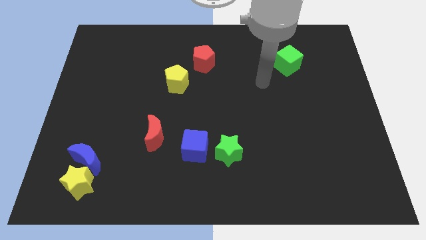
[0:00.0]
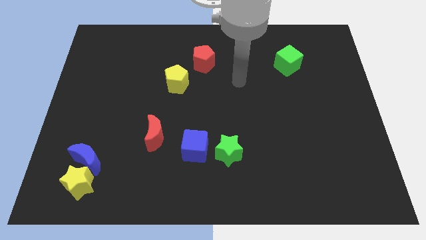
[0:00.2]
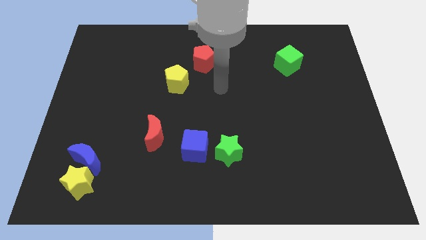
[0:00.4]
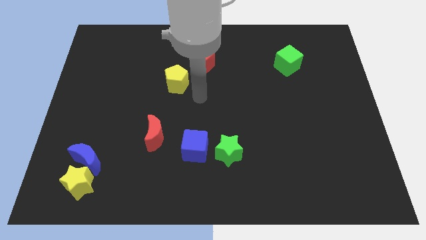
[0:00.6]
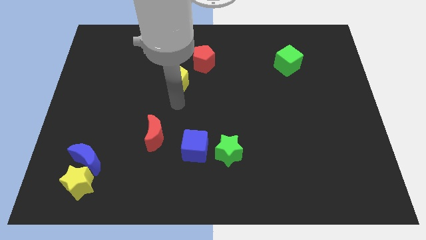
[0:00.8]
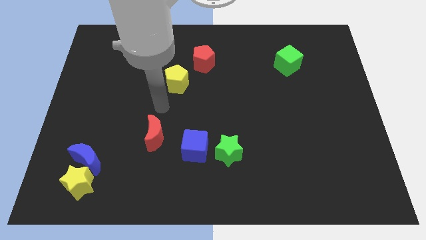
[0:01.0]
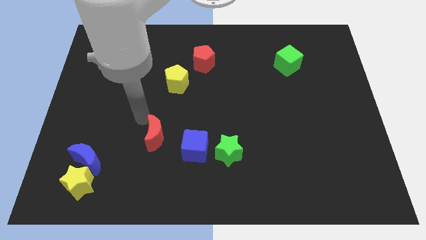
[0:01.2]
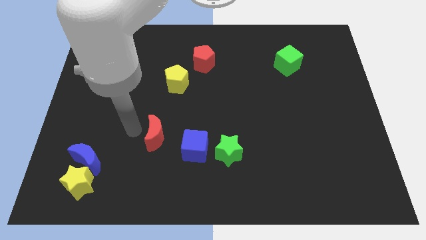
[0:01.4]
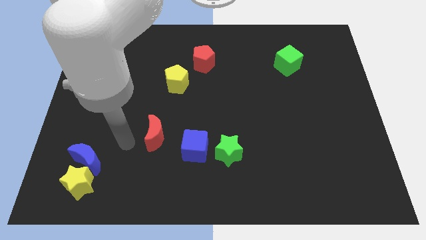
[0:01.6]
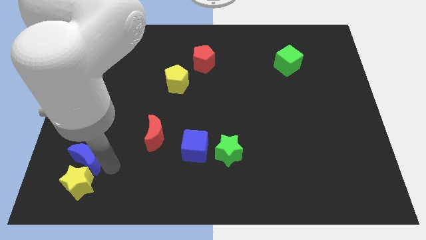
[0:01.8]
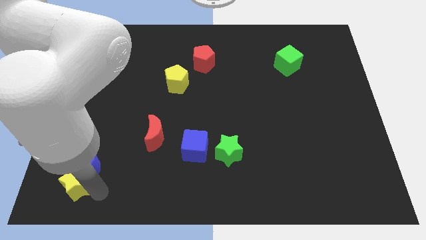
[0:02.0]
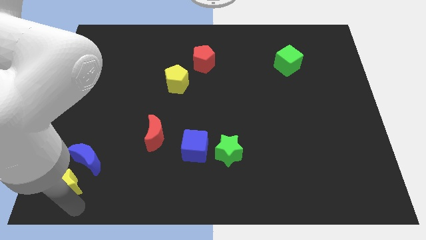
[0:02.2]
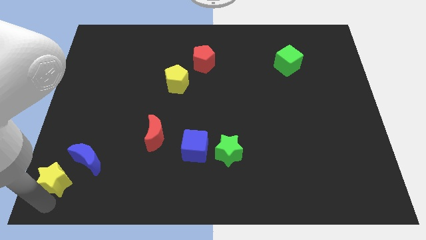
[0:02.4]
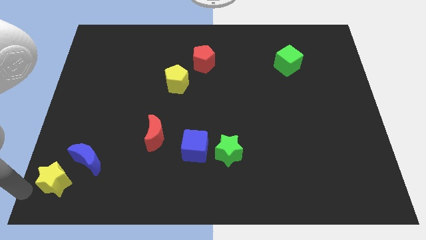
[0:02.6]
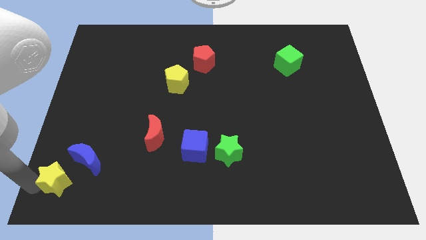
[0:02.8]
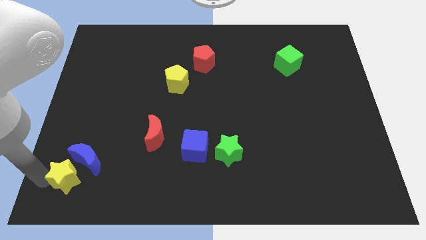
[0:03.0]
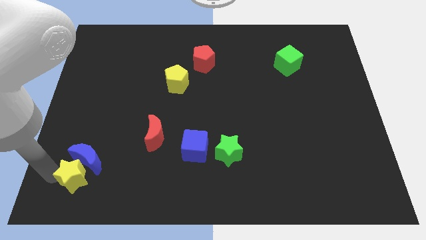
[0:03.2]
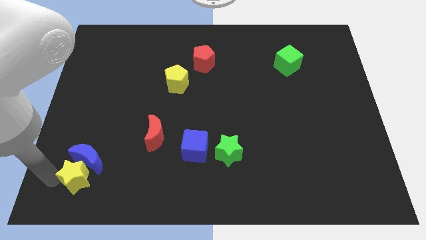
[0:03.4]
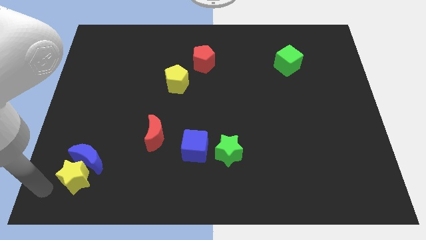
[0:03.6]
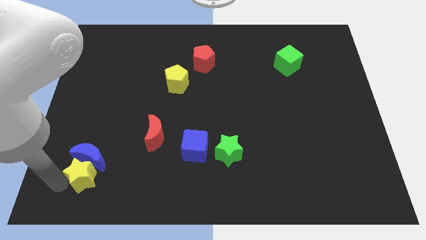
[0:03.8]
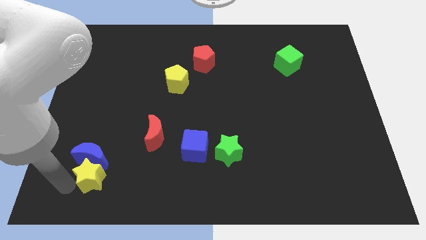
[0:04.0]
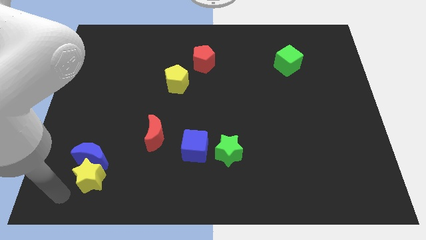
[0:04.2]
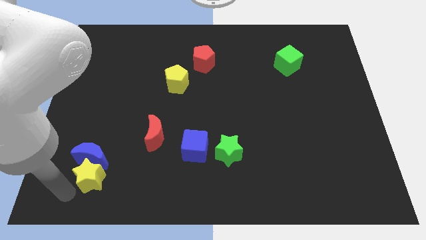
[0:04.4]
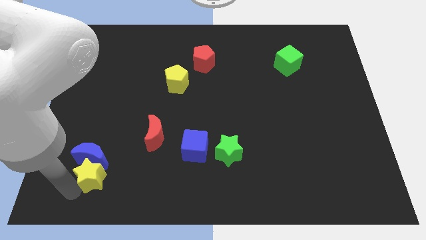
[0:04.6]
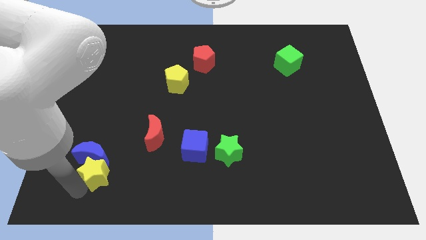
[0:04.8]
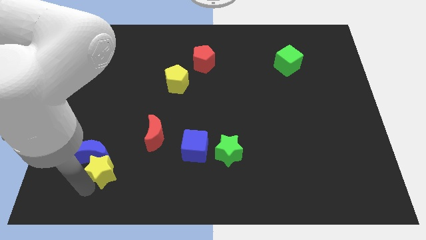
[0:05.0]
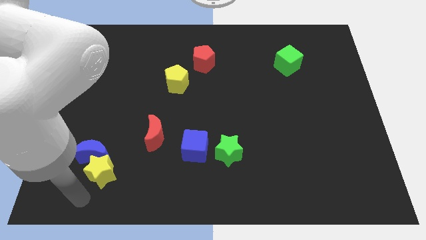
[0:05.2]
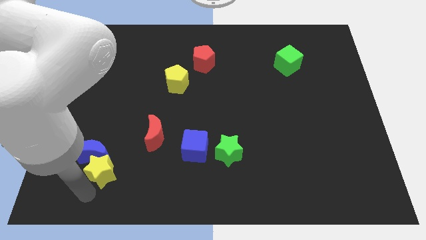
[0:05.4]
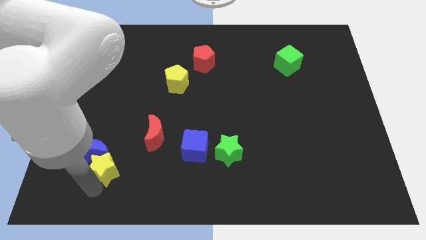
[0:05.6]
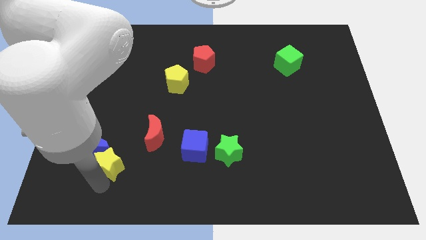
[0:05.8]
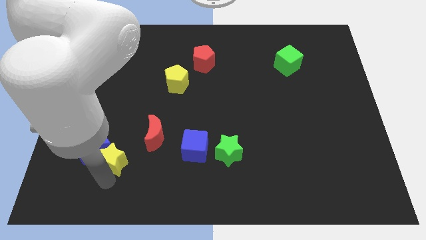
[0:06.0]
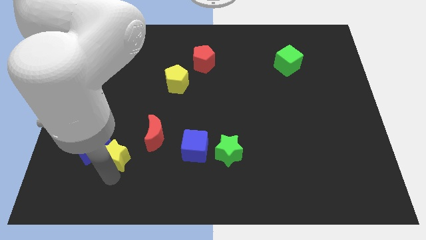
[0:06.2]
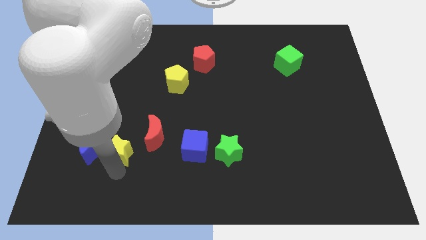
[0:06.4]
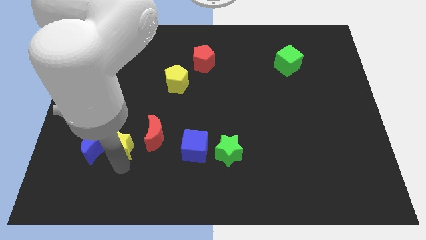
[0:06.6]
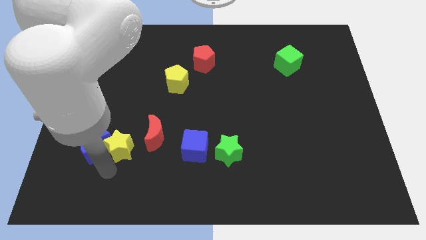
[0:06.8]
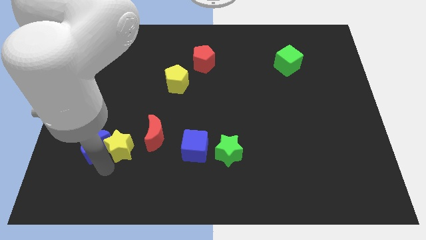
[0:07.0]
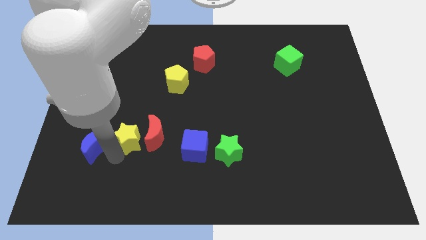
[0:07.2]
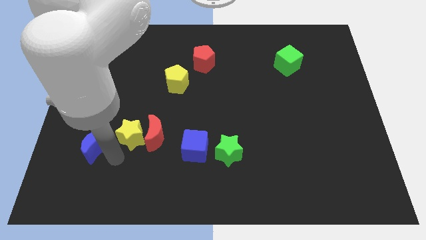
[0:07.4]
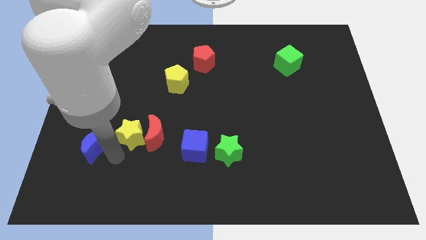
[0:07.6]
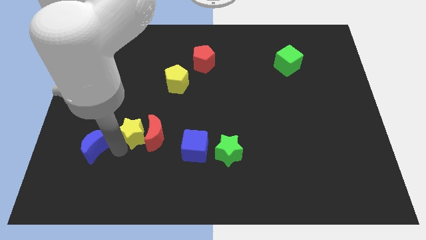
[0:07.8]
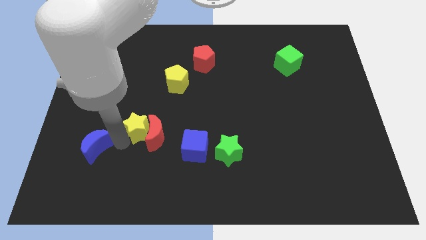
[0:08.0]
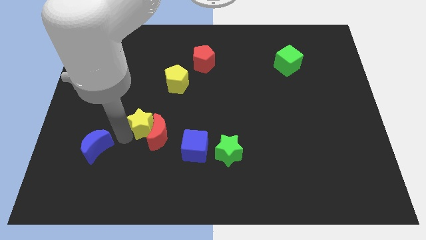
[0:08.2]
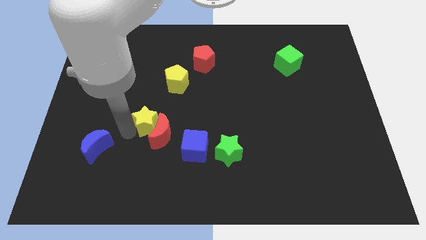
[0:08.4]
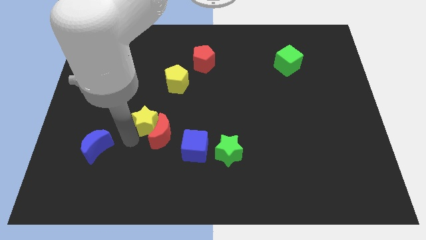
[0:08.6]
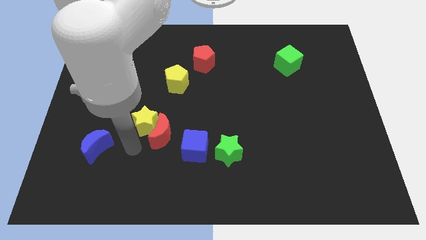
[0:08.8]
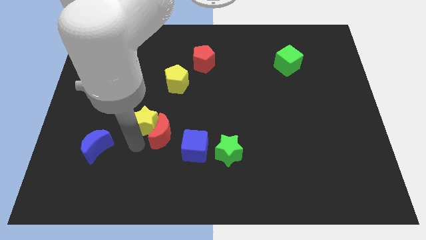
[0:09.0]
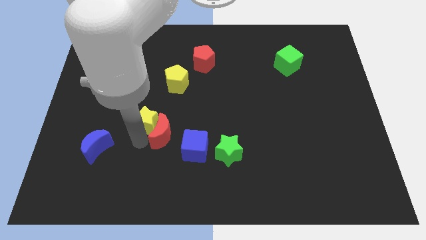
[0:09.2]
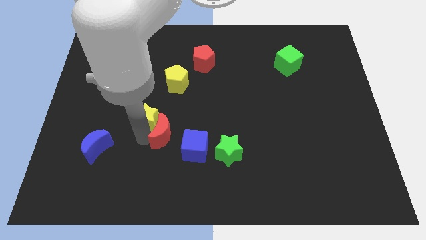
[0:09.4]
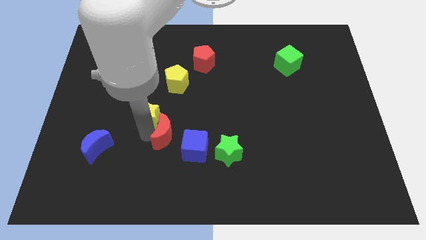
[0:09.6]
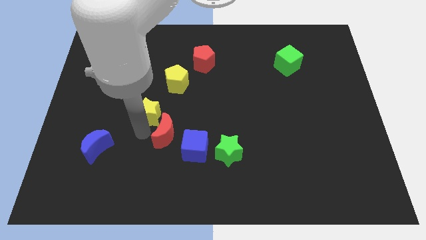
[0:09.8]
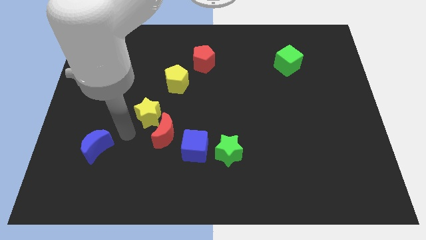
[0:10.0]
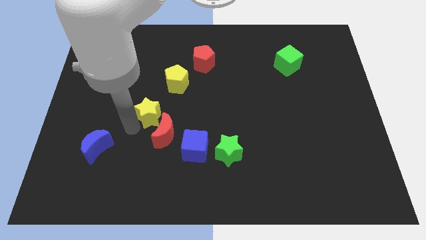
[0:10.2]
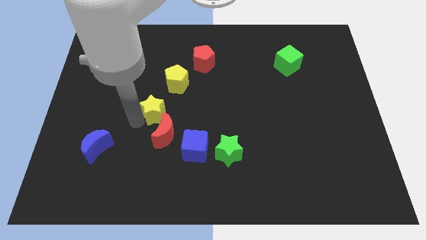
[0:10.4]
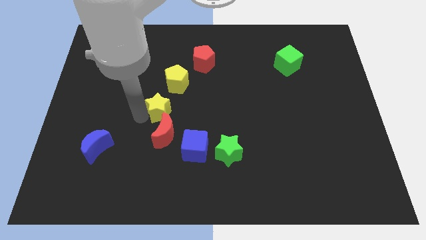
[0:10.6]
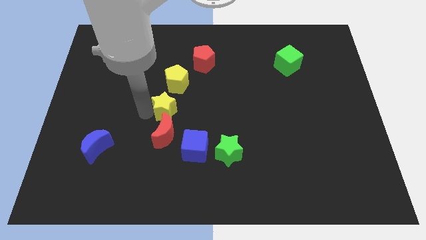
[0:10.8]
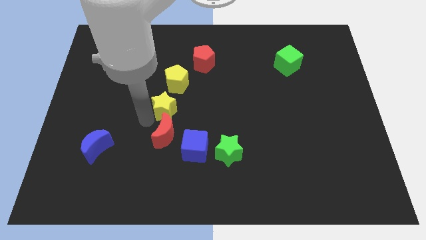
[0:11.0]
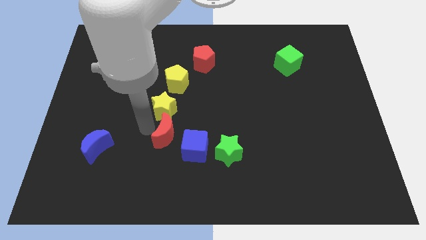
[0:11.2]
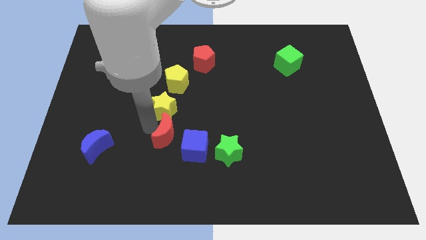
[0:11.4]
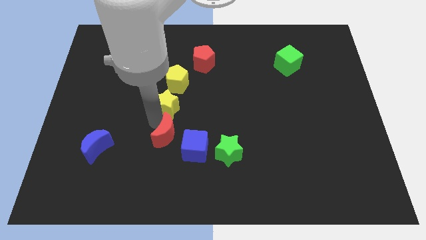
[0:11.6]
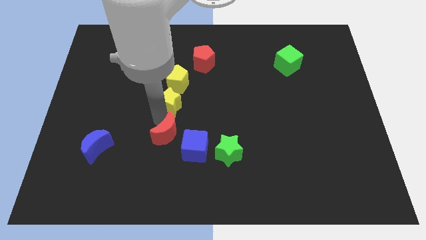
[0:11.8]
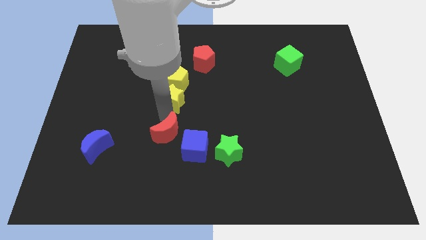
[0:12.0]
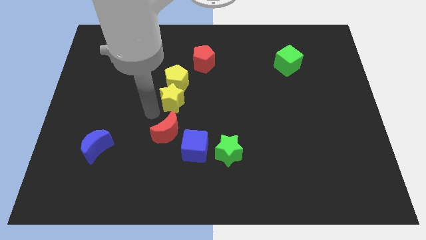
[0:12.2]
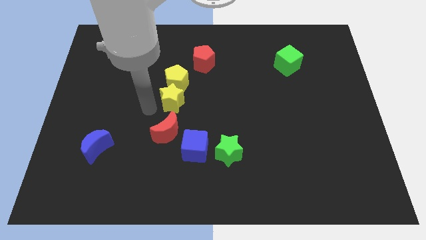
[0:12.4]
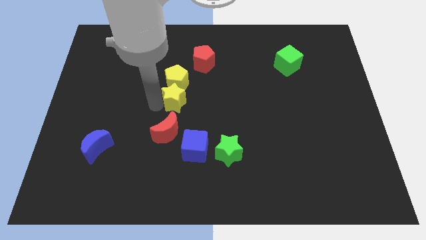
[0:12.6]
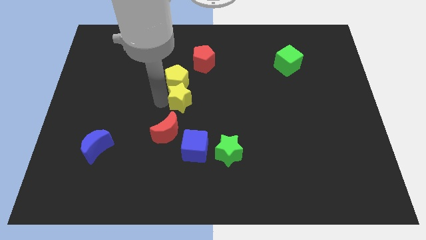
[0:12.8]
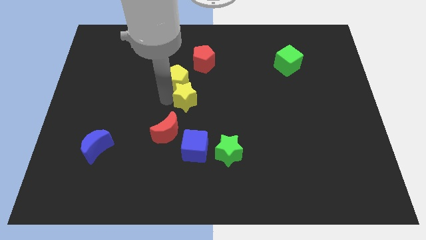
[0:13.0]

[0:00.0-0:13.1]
push the yellow star below the red pentagon

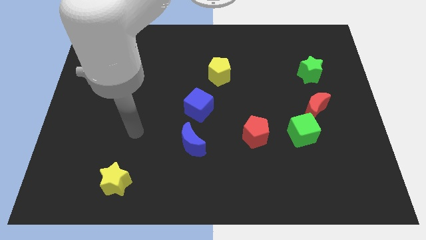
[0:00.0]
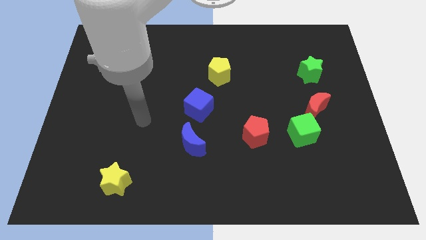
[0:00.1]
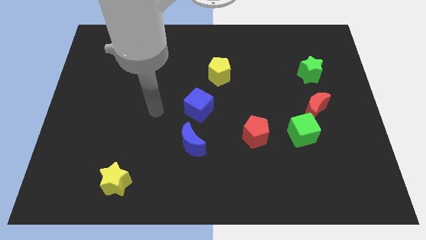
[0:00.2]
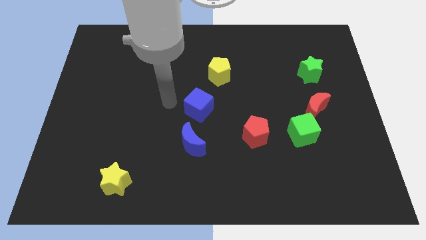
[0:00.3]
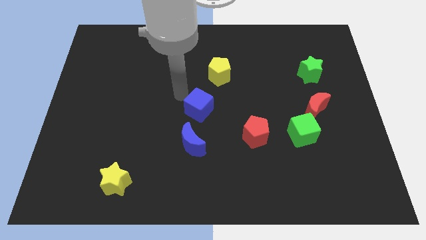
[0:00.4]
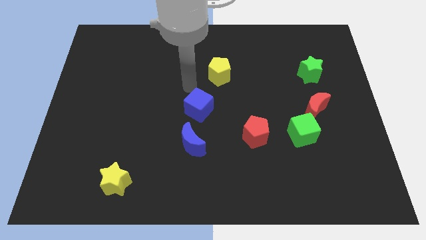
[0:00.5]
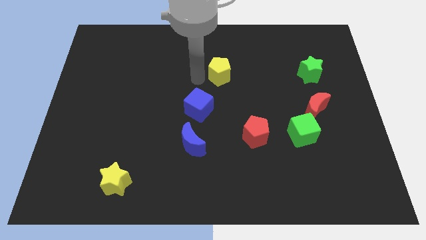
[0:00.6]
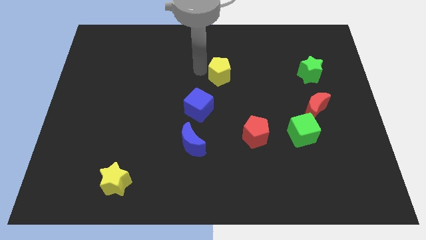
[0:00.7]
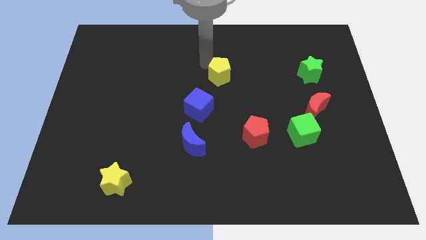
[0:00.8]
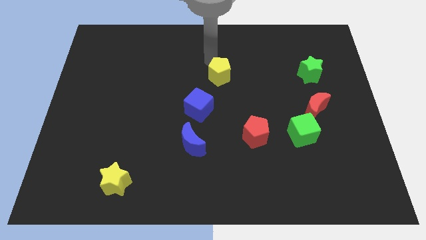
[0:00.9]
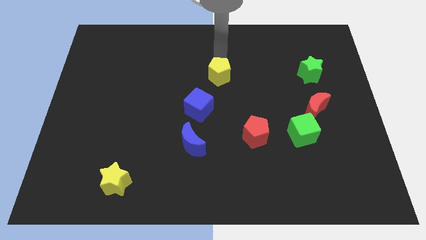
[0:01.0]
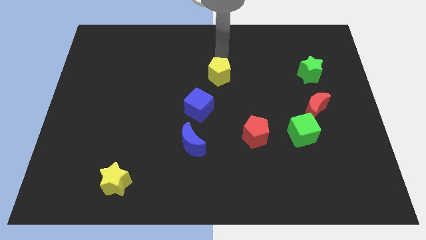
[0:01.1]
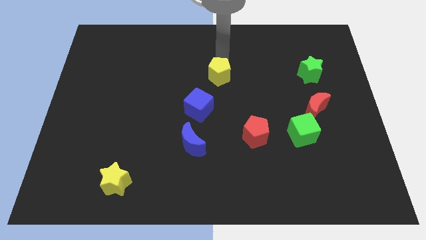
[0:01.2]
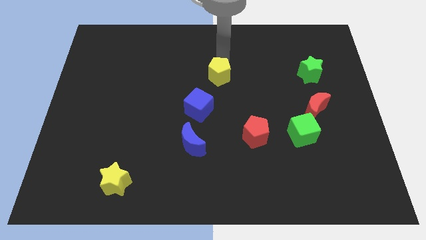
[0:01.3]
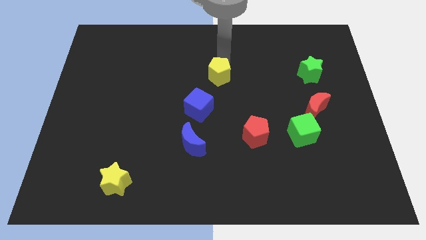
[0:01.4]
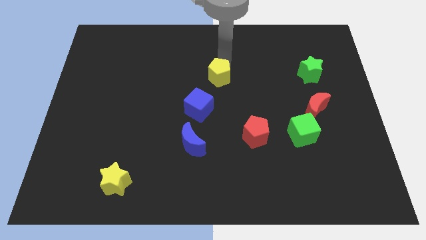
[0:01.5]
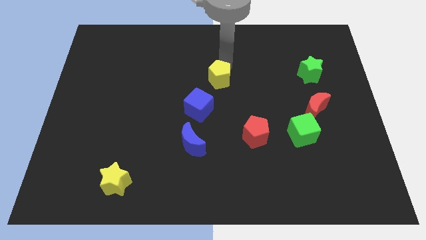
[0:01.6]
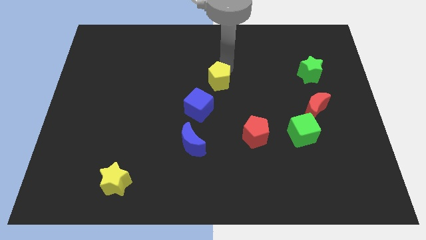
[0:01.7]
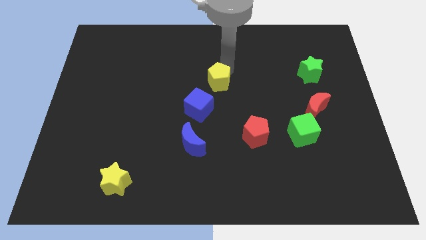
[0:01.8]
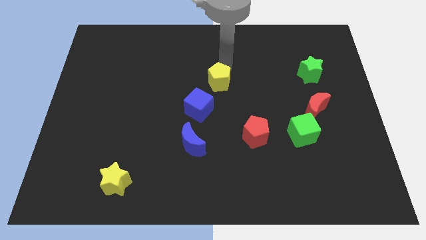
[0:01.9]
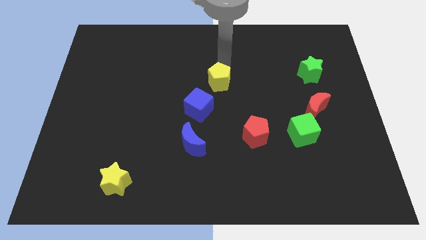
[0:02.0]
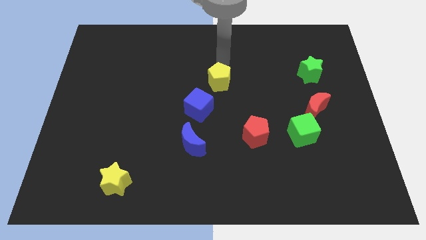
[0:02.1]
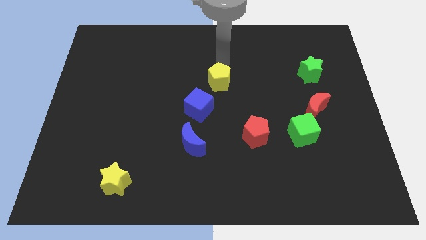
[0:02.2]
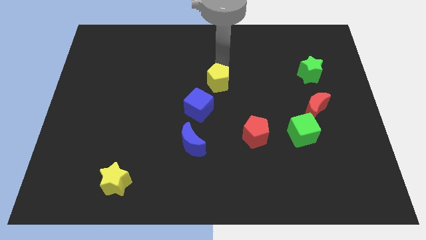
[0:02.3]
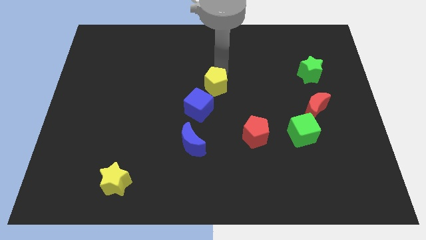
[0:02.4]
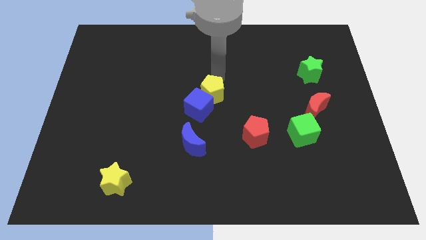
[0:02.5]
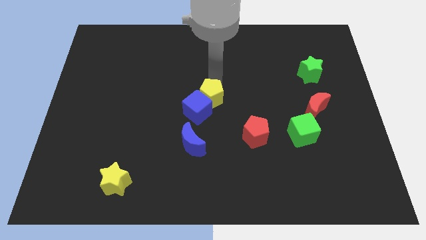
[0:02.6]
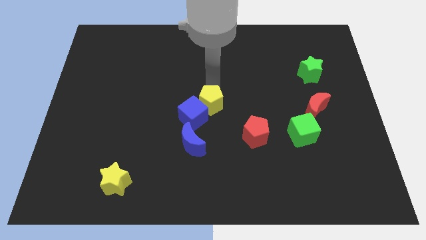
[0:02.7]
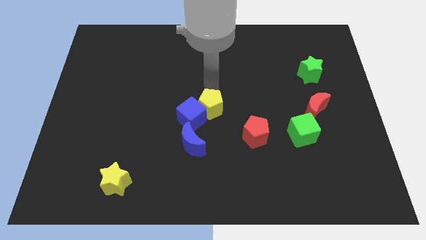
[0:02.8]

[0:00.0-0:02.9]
push the yellow pentagon diagonally up and to the right of the blue moon
